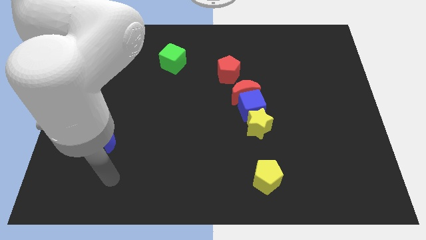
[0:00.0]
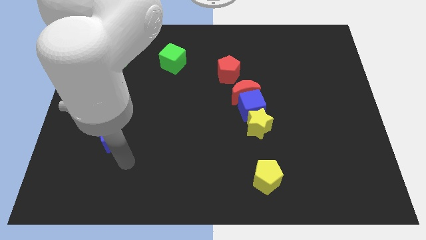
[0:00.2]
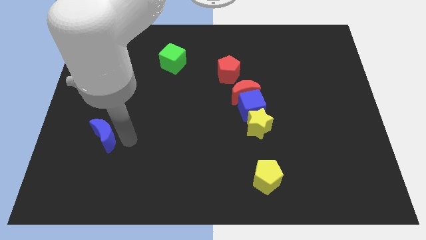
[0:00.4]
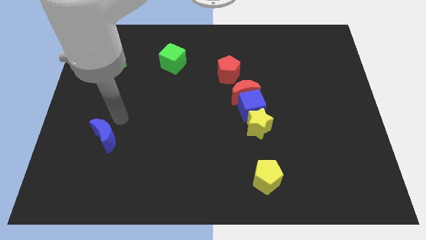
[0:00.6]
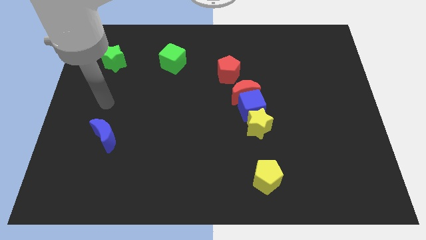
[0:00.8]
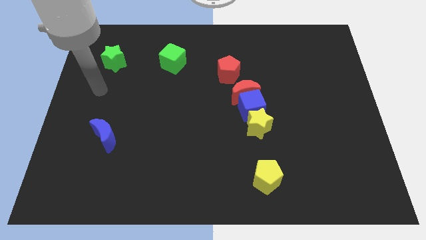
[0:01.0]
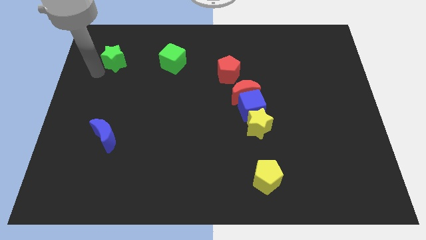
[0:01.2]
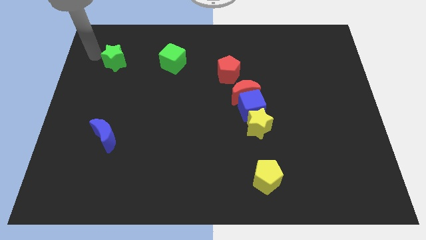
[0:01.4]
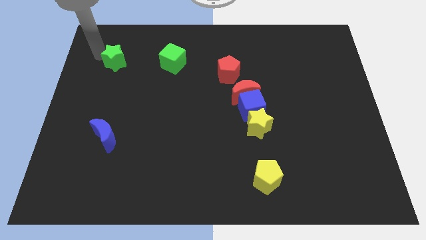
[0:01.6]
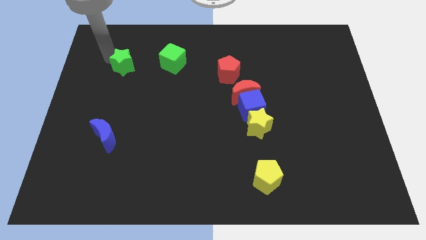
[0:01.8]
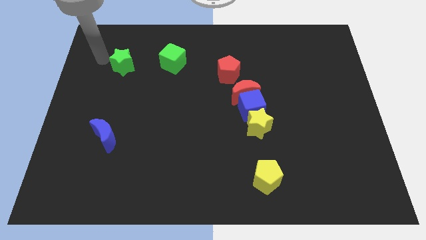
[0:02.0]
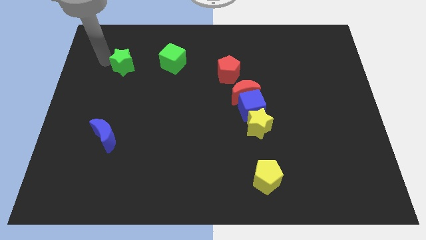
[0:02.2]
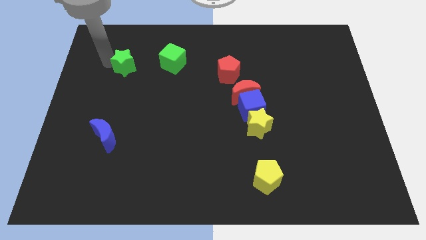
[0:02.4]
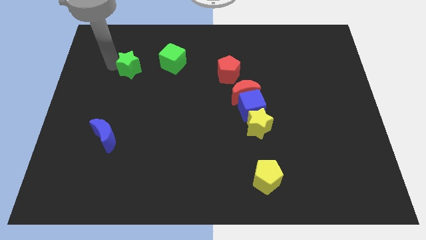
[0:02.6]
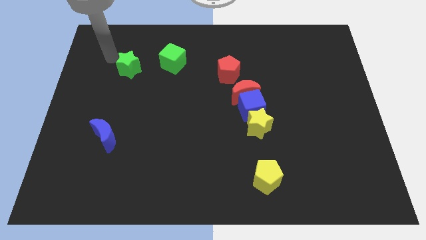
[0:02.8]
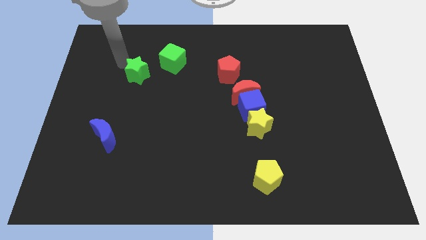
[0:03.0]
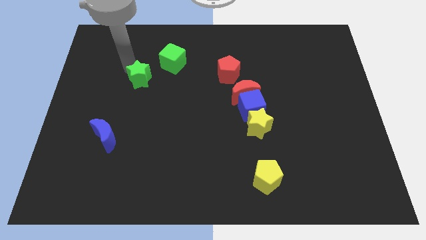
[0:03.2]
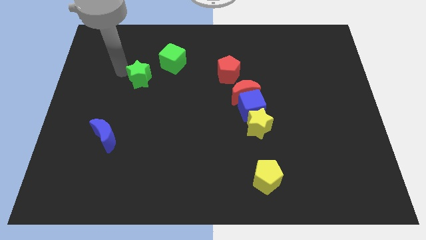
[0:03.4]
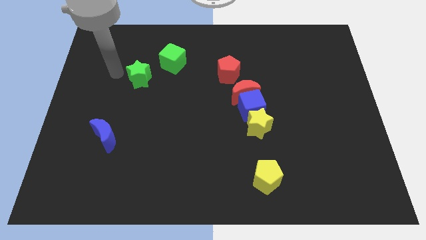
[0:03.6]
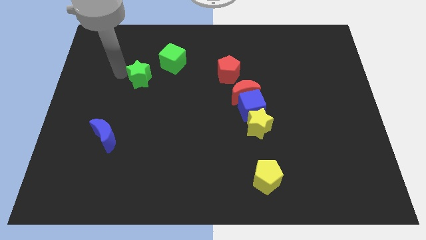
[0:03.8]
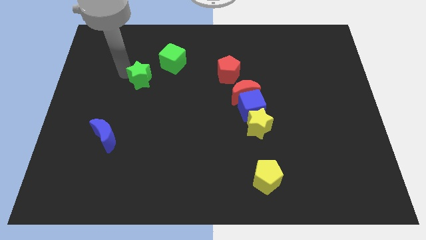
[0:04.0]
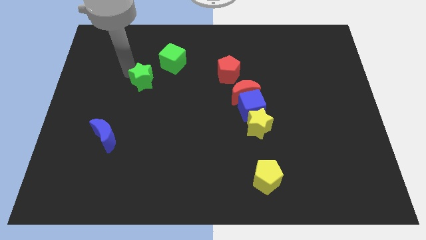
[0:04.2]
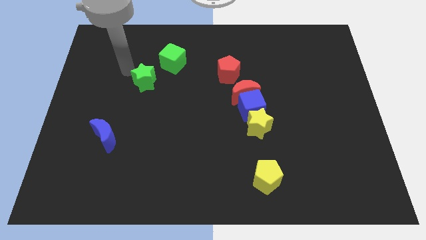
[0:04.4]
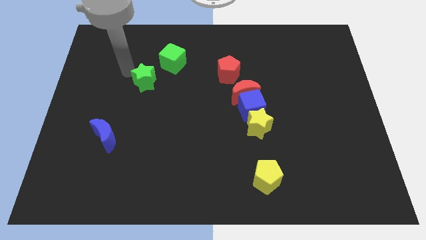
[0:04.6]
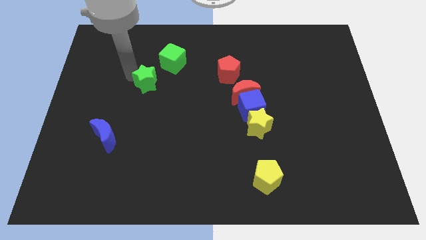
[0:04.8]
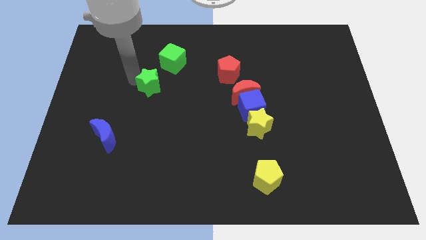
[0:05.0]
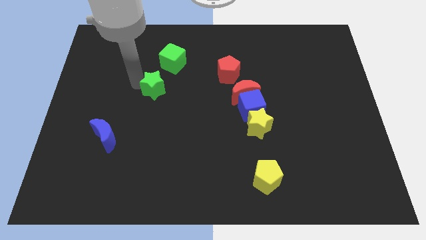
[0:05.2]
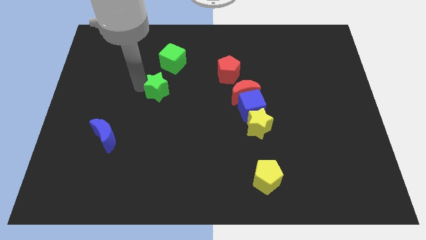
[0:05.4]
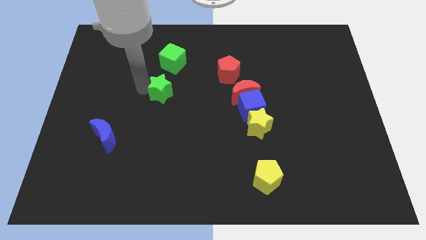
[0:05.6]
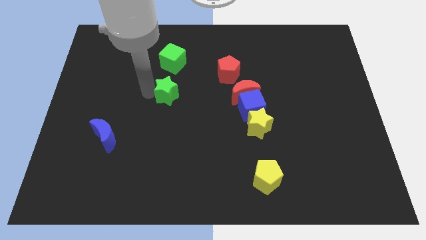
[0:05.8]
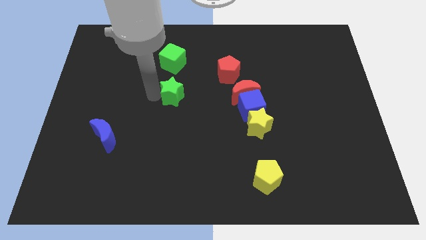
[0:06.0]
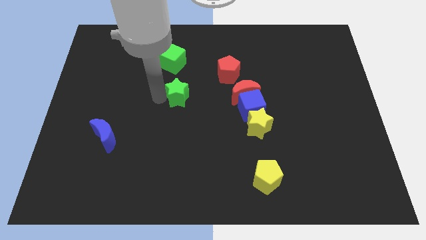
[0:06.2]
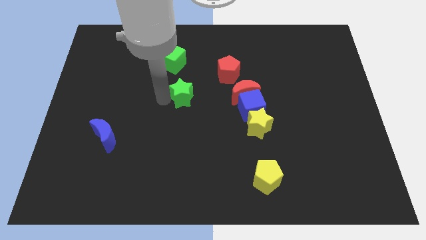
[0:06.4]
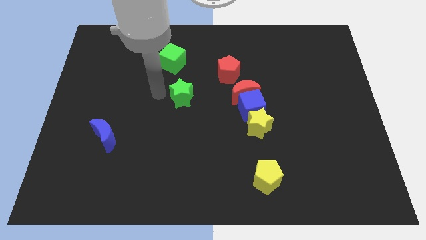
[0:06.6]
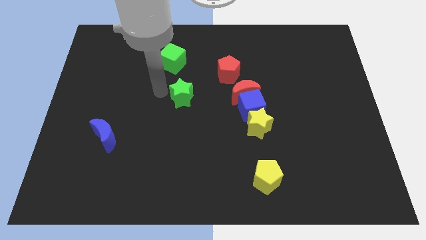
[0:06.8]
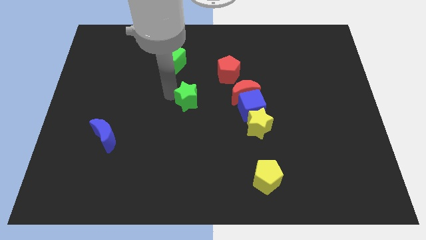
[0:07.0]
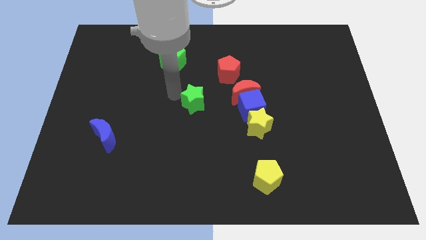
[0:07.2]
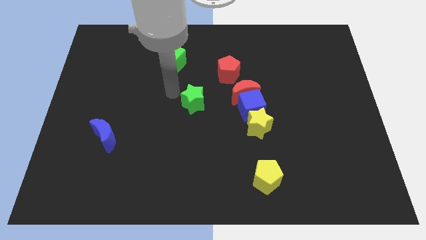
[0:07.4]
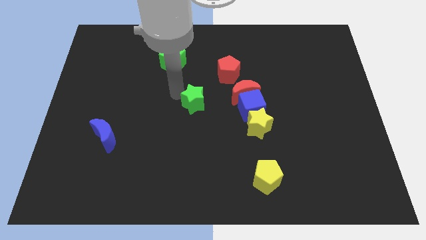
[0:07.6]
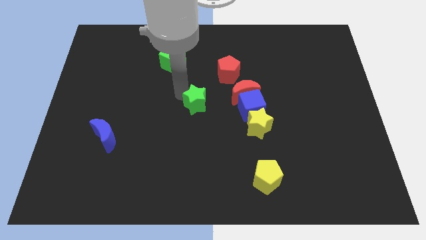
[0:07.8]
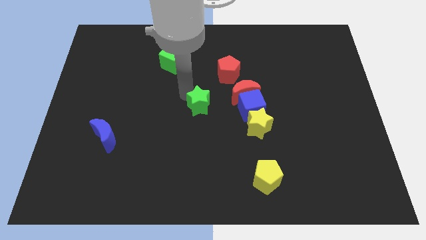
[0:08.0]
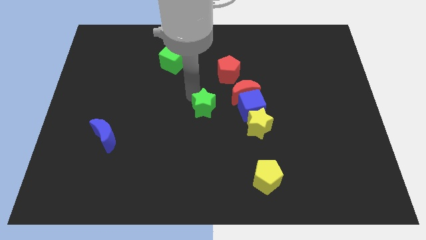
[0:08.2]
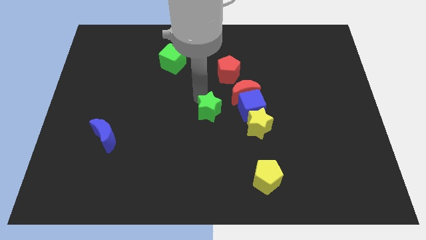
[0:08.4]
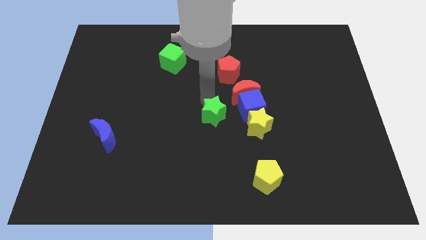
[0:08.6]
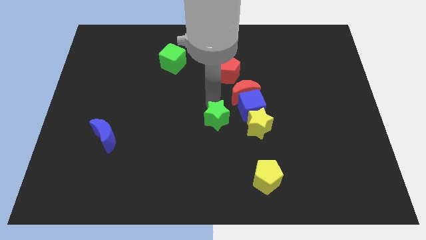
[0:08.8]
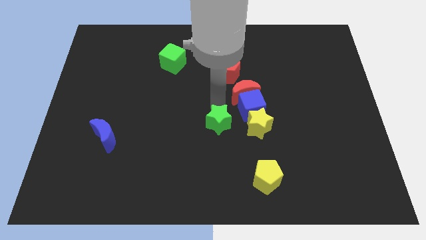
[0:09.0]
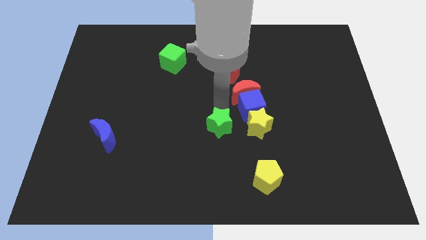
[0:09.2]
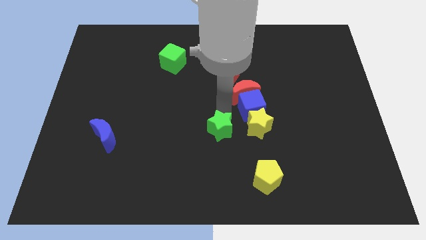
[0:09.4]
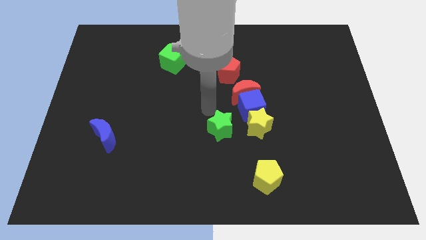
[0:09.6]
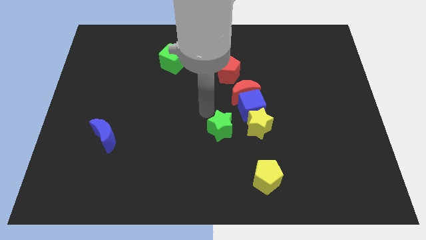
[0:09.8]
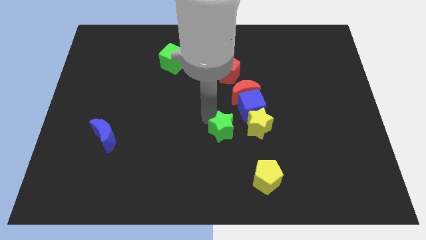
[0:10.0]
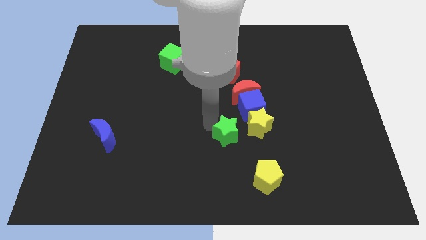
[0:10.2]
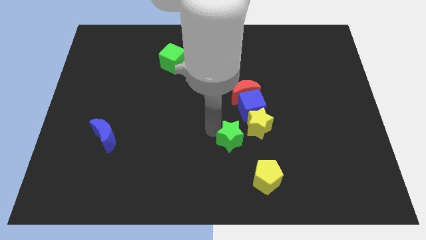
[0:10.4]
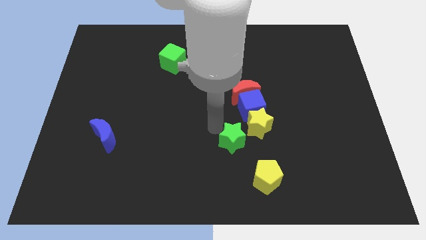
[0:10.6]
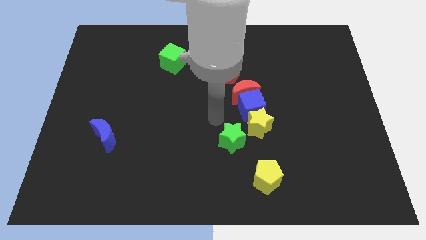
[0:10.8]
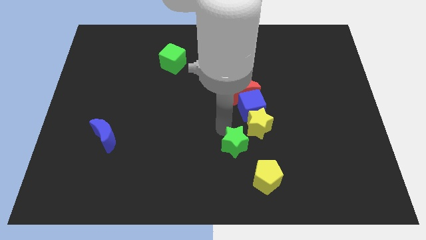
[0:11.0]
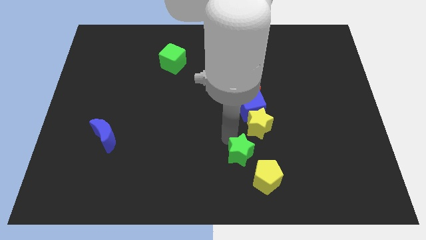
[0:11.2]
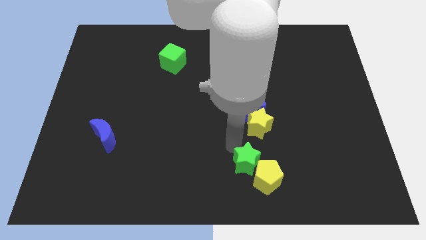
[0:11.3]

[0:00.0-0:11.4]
slide the green star close to the yellow pentagon
